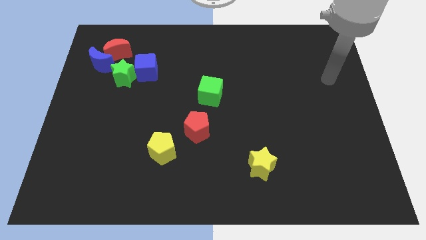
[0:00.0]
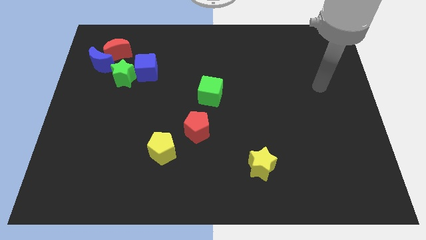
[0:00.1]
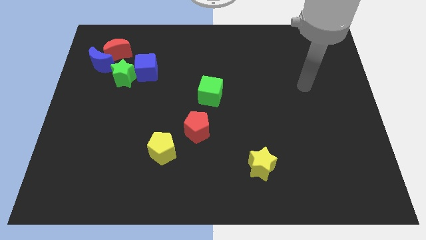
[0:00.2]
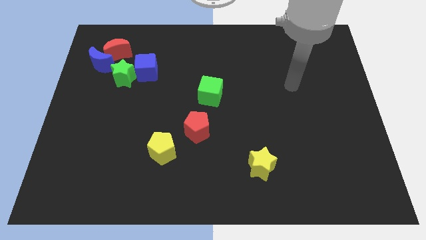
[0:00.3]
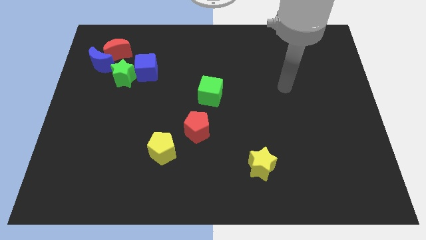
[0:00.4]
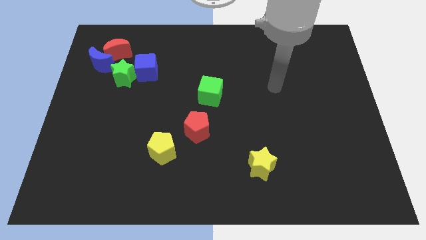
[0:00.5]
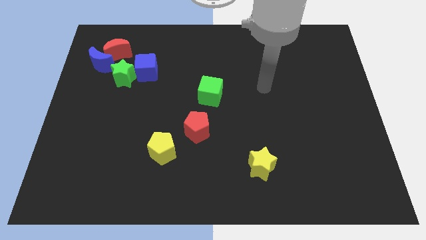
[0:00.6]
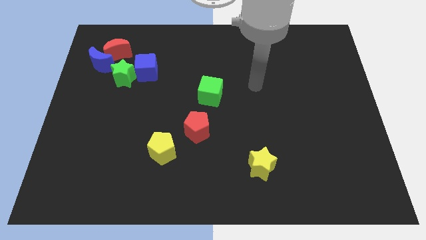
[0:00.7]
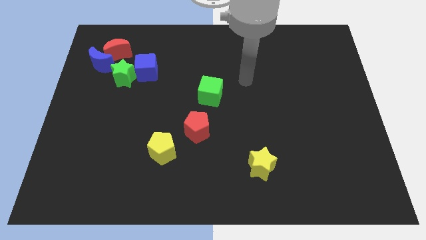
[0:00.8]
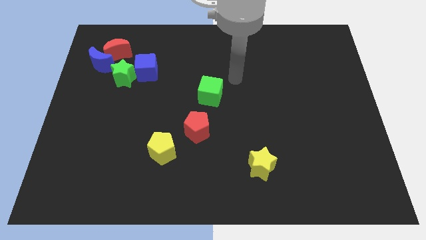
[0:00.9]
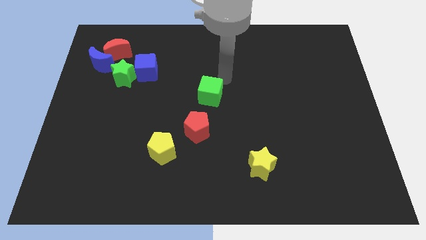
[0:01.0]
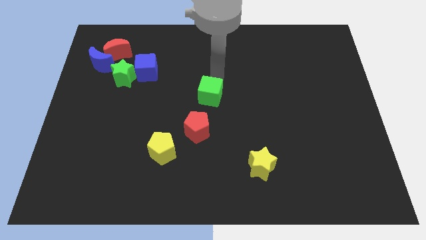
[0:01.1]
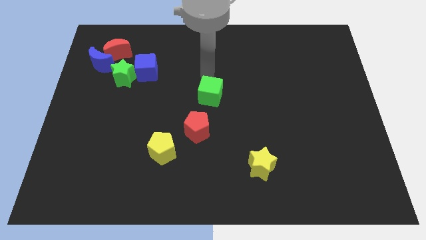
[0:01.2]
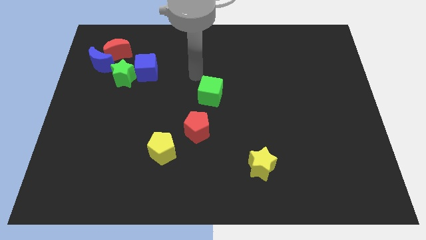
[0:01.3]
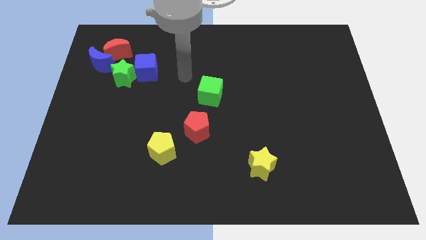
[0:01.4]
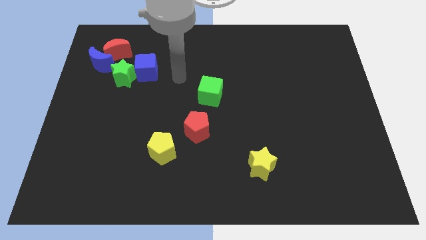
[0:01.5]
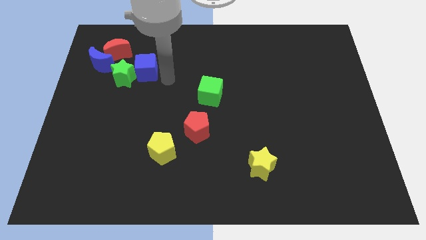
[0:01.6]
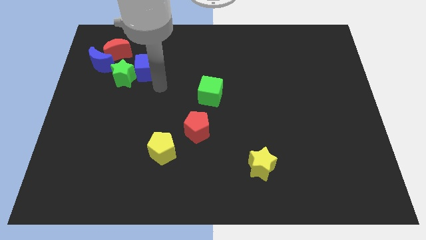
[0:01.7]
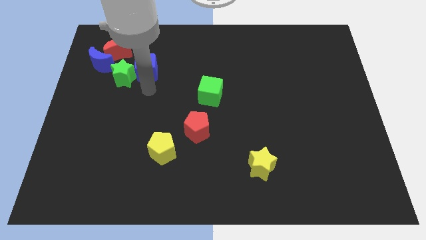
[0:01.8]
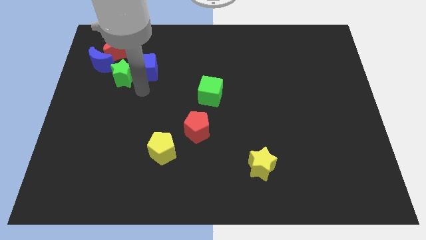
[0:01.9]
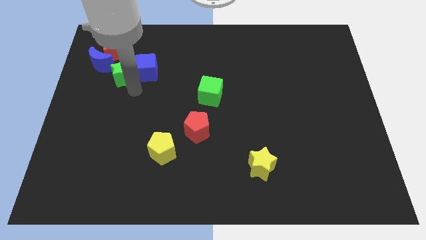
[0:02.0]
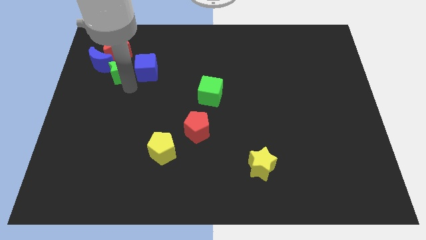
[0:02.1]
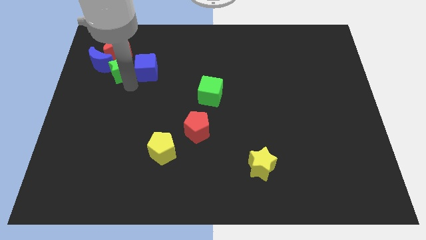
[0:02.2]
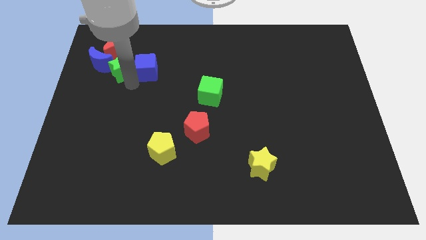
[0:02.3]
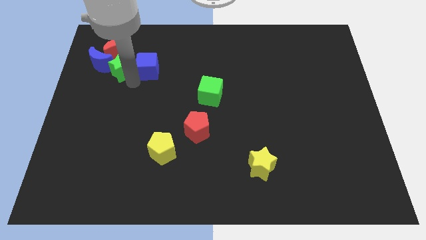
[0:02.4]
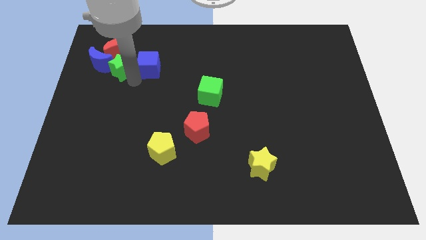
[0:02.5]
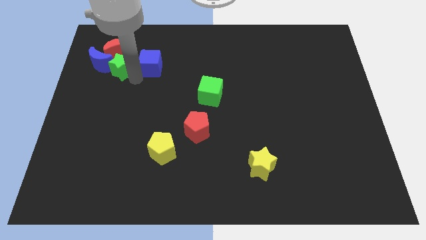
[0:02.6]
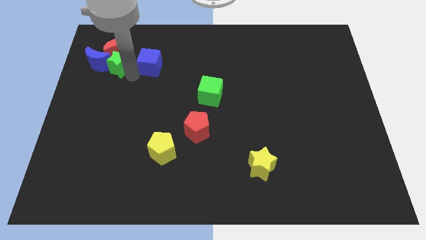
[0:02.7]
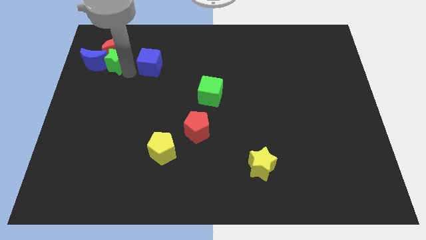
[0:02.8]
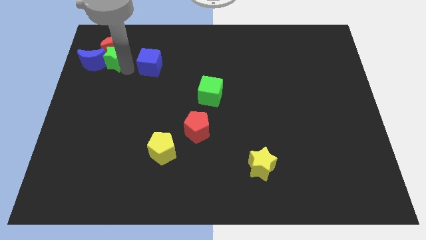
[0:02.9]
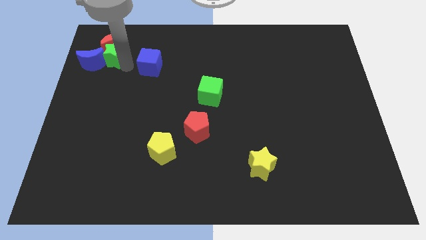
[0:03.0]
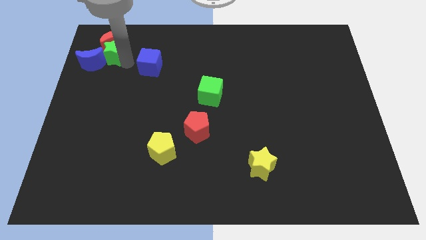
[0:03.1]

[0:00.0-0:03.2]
separate the blue cube from the green star

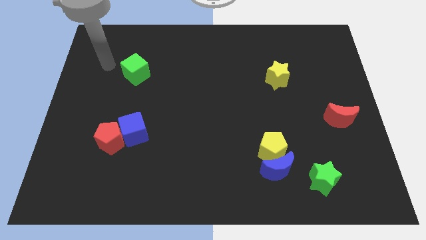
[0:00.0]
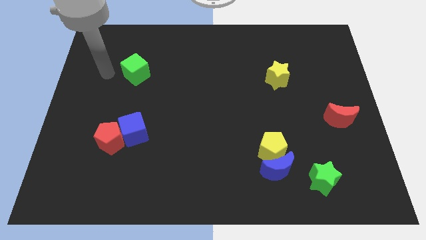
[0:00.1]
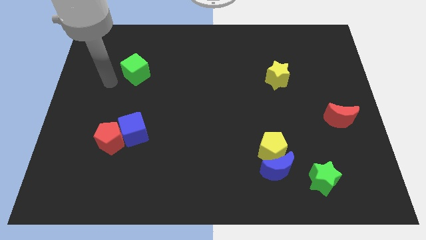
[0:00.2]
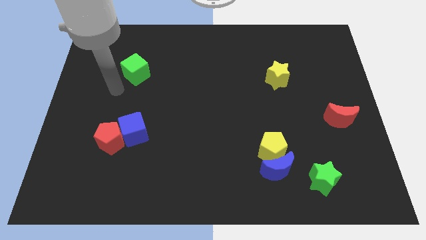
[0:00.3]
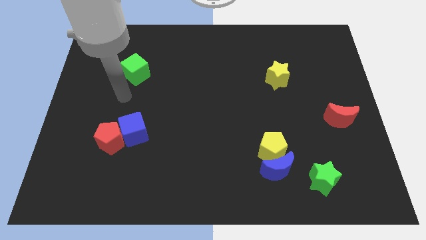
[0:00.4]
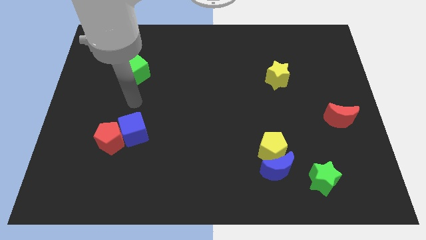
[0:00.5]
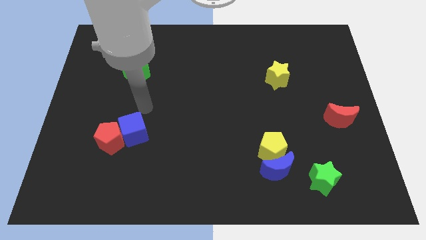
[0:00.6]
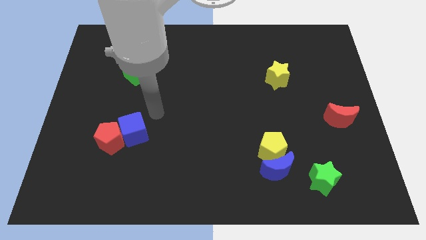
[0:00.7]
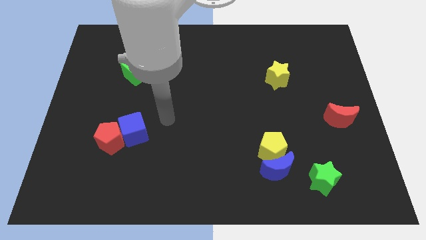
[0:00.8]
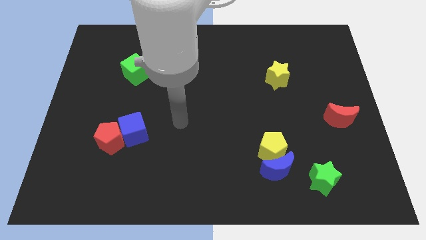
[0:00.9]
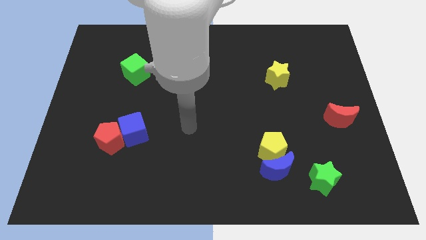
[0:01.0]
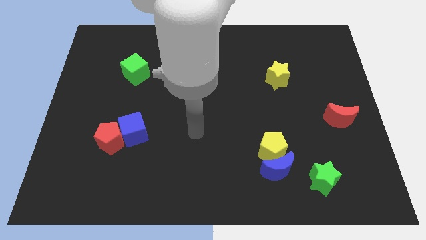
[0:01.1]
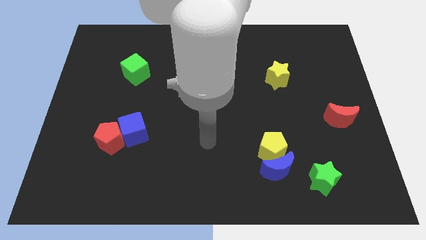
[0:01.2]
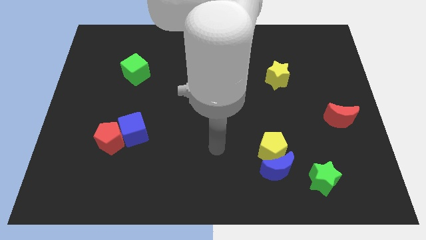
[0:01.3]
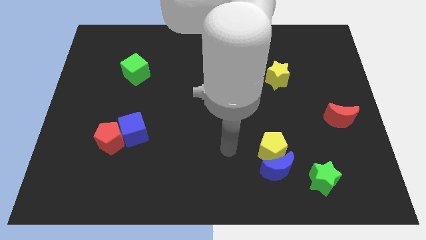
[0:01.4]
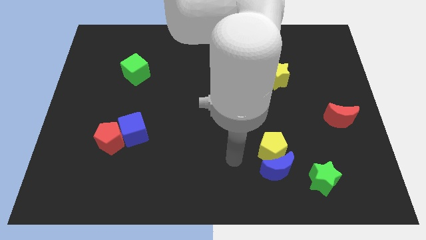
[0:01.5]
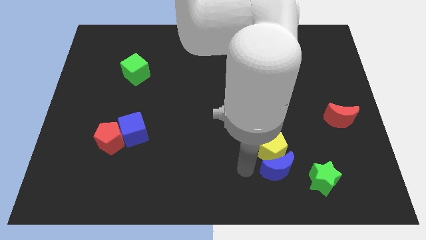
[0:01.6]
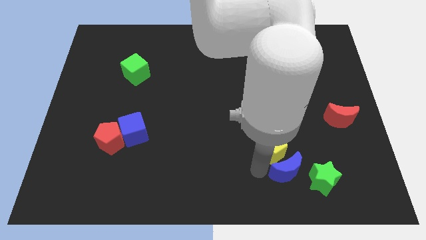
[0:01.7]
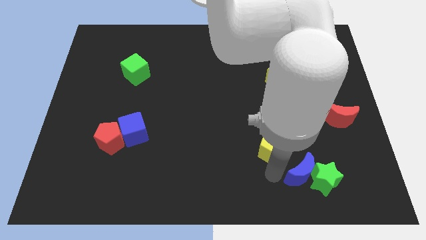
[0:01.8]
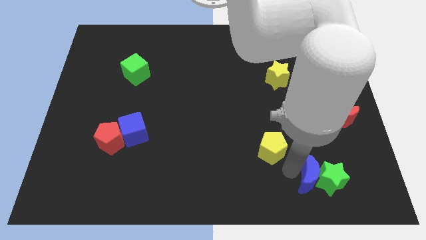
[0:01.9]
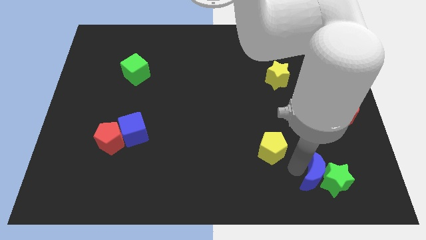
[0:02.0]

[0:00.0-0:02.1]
pull the yellow pentagon apart from the blue moon

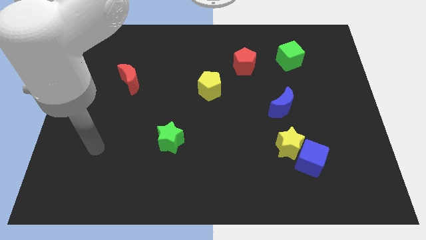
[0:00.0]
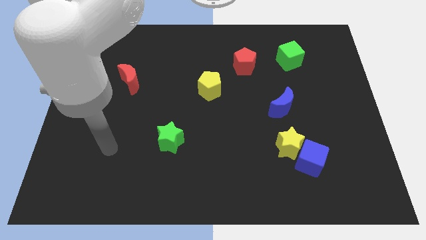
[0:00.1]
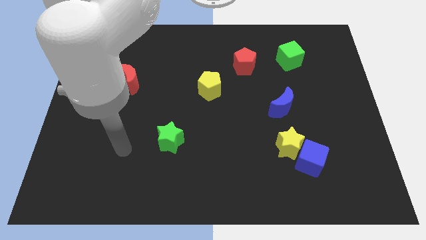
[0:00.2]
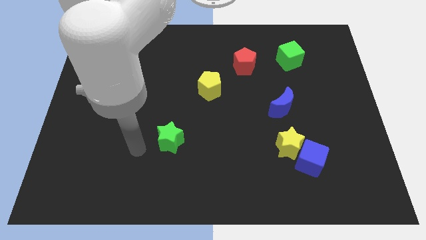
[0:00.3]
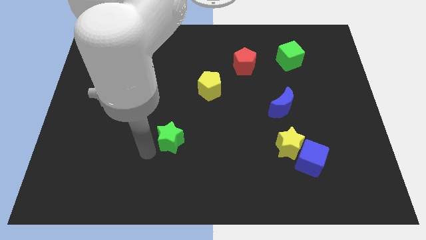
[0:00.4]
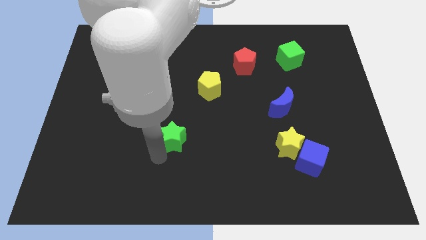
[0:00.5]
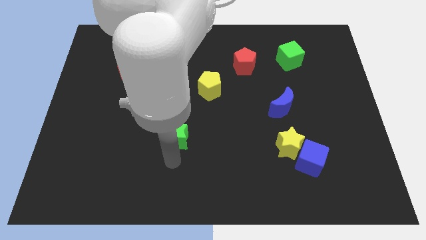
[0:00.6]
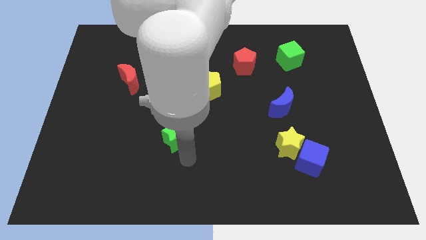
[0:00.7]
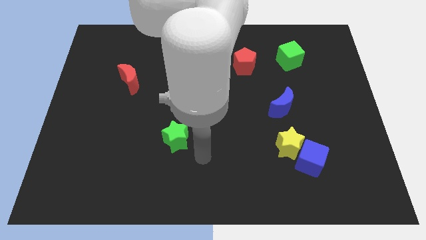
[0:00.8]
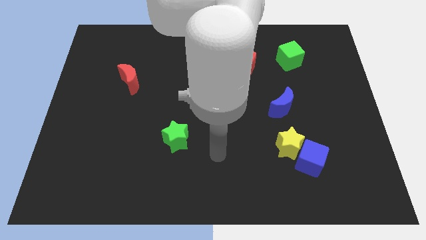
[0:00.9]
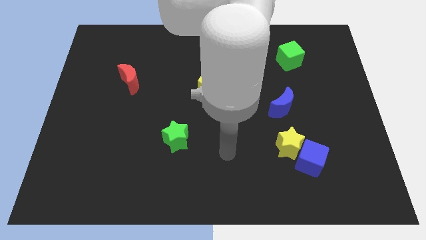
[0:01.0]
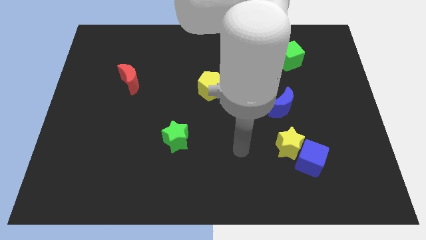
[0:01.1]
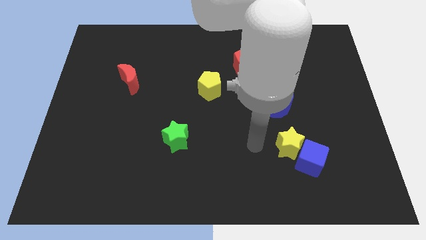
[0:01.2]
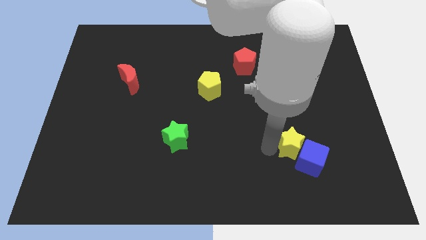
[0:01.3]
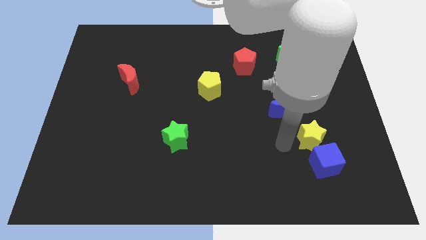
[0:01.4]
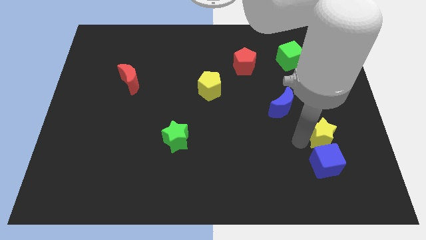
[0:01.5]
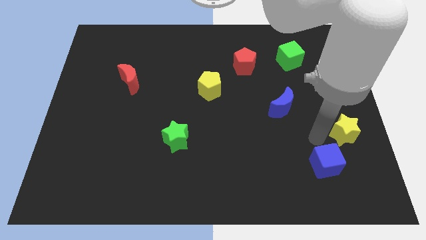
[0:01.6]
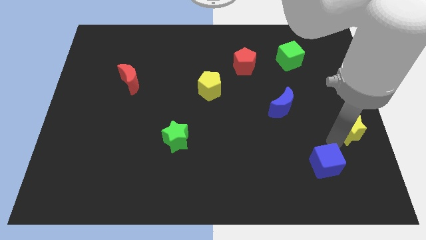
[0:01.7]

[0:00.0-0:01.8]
separate the blue cube from the yellow star

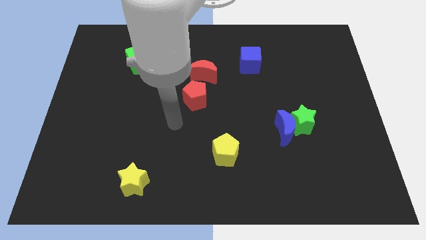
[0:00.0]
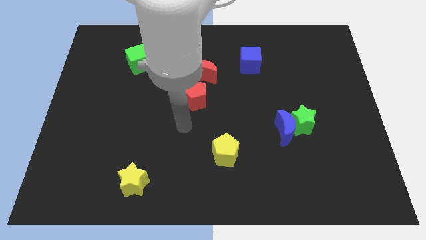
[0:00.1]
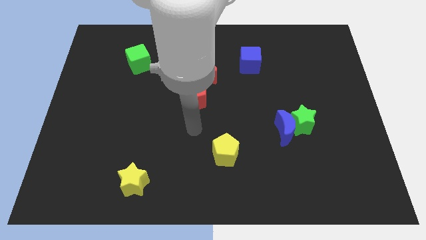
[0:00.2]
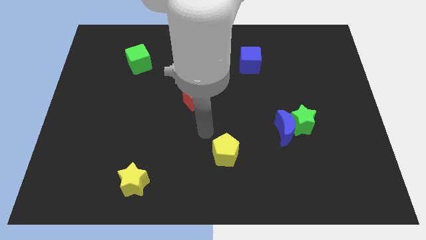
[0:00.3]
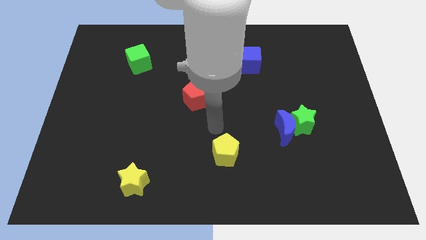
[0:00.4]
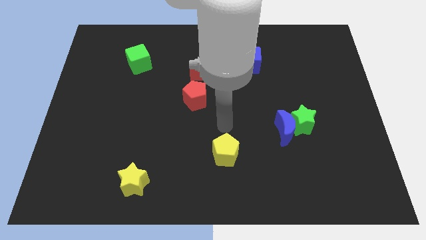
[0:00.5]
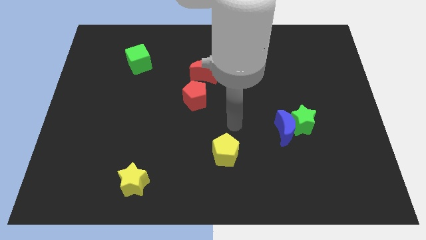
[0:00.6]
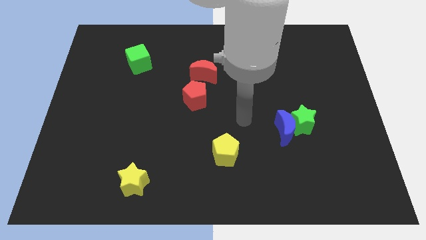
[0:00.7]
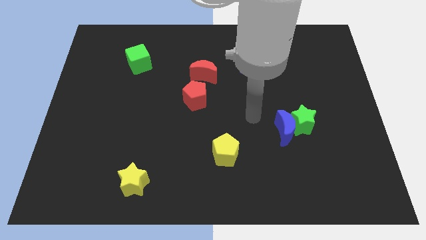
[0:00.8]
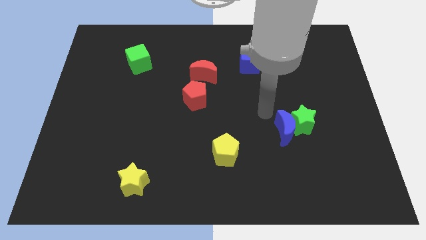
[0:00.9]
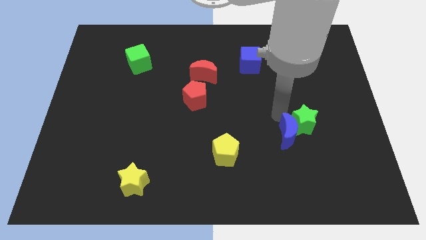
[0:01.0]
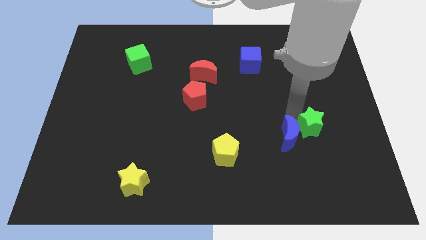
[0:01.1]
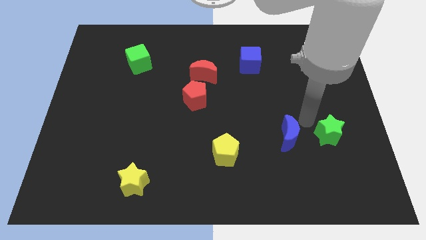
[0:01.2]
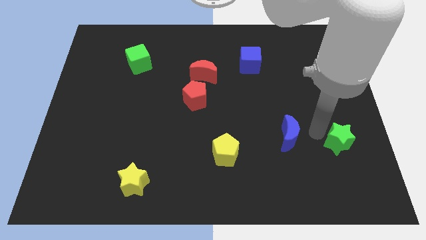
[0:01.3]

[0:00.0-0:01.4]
move the blue moon away from the green star

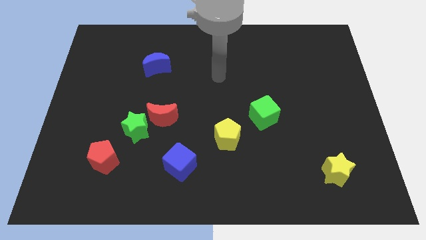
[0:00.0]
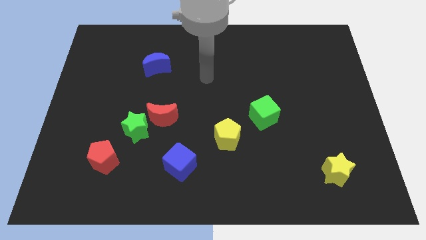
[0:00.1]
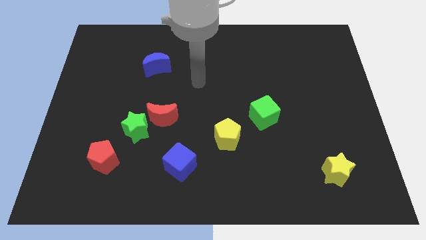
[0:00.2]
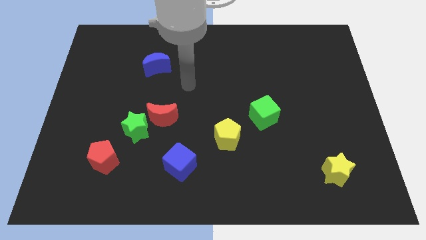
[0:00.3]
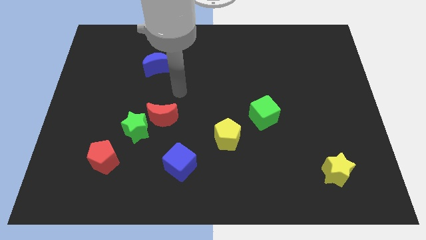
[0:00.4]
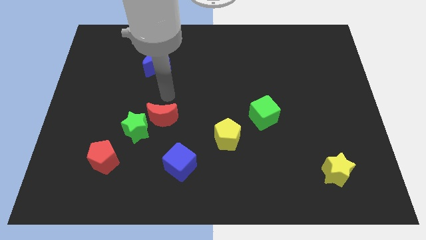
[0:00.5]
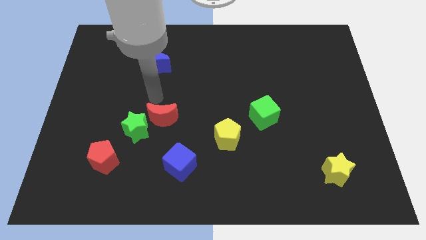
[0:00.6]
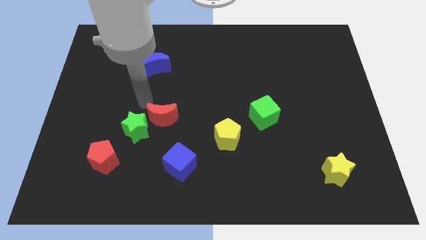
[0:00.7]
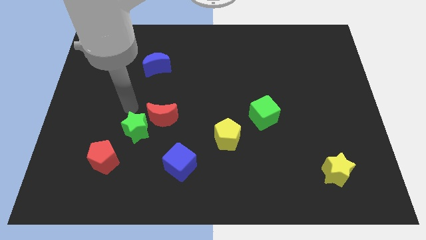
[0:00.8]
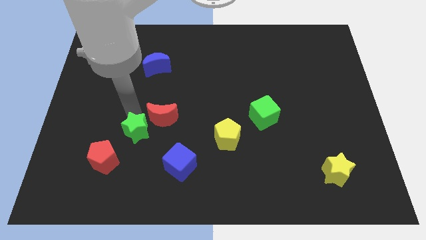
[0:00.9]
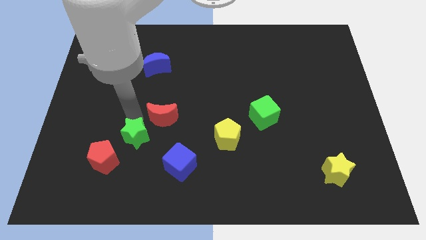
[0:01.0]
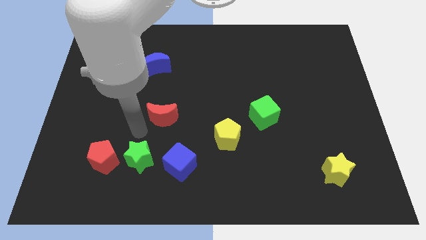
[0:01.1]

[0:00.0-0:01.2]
pull the red moon apart from the green star
